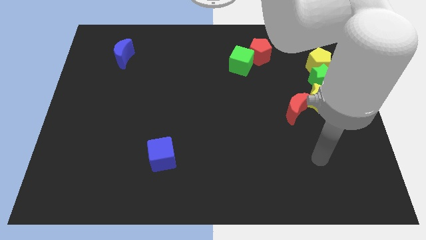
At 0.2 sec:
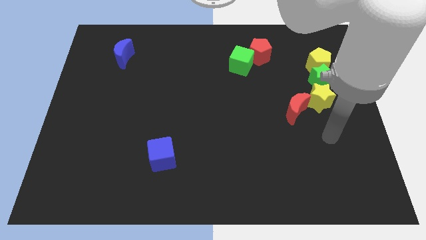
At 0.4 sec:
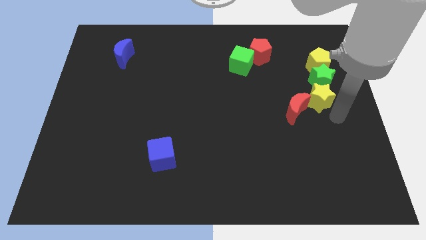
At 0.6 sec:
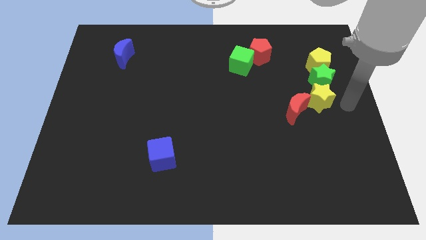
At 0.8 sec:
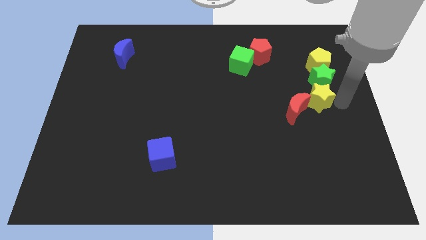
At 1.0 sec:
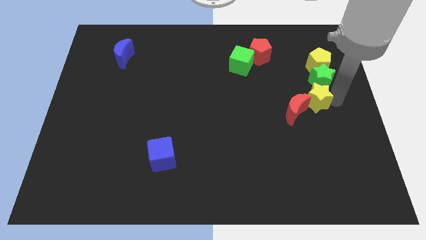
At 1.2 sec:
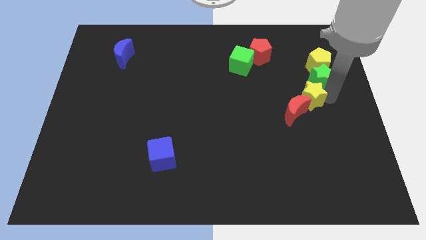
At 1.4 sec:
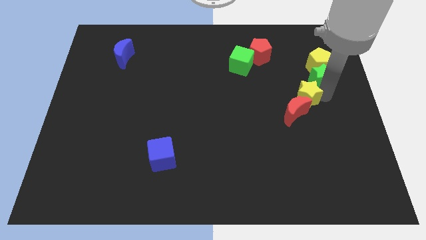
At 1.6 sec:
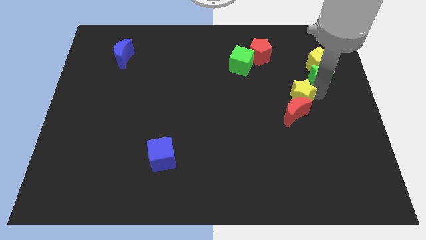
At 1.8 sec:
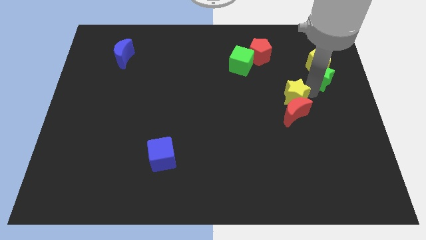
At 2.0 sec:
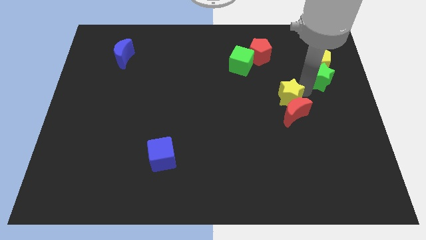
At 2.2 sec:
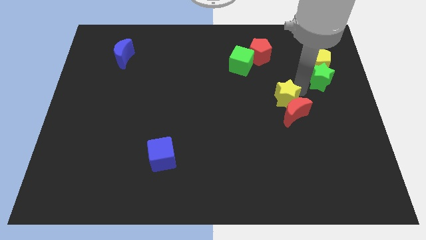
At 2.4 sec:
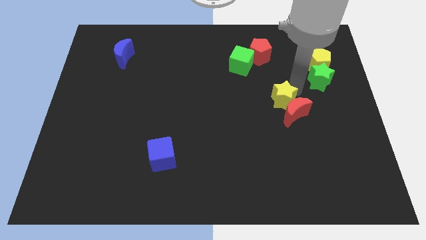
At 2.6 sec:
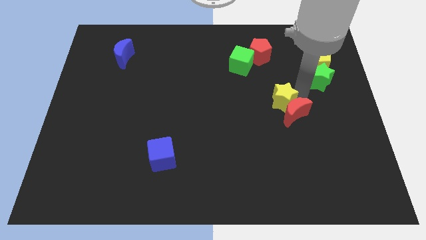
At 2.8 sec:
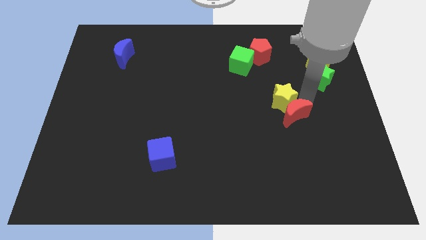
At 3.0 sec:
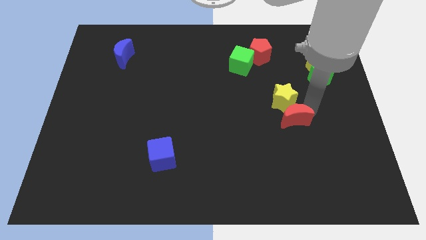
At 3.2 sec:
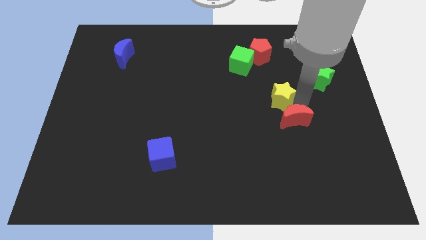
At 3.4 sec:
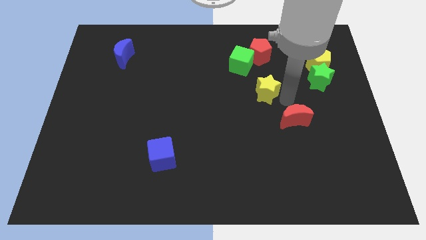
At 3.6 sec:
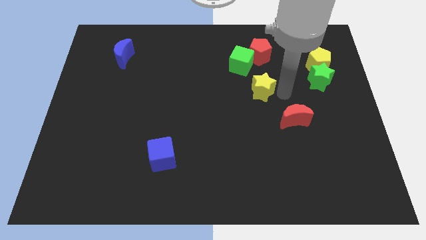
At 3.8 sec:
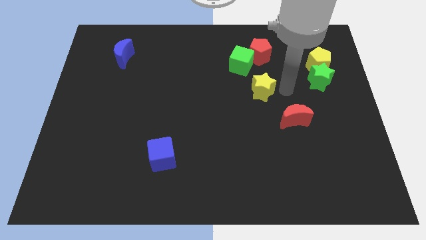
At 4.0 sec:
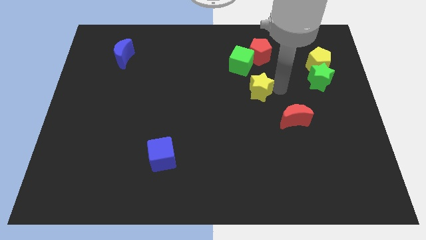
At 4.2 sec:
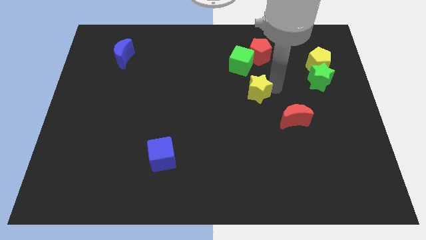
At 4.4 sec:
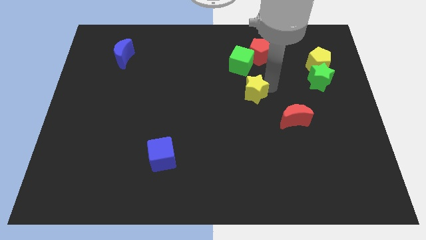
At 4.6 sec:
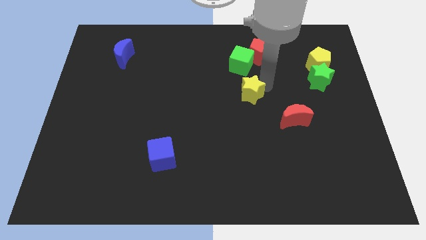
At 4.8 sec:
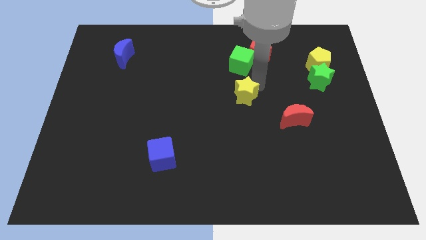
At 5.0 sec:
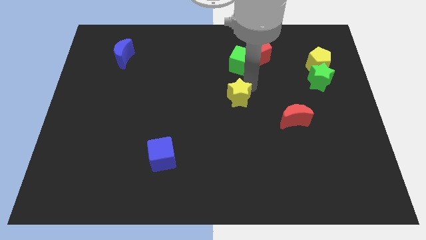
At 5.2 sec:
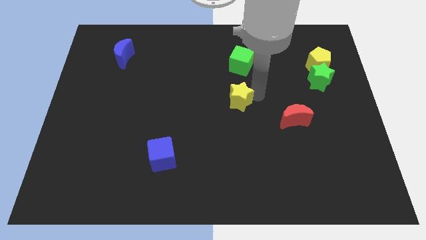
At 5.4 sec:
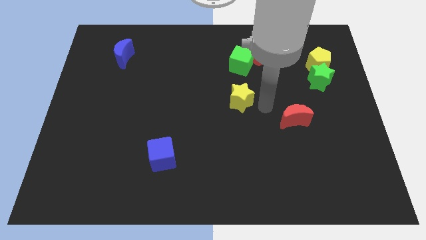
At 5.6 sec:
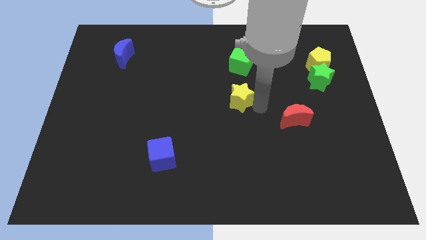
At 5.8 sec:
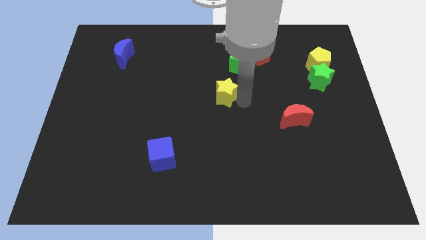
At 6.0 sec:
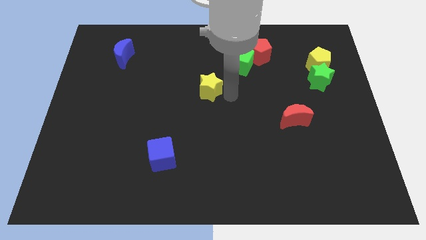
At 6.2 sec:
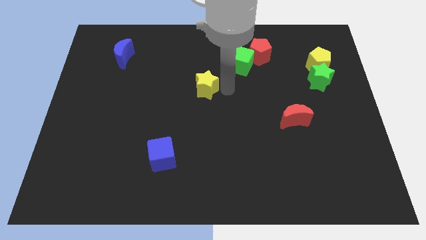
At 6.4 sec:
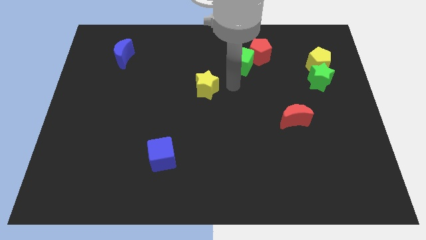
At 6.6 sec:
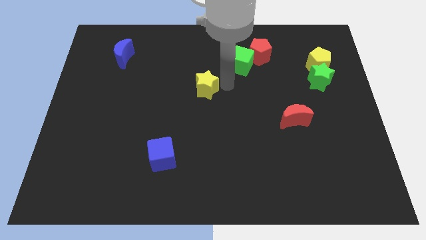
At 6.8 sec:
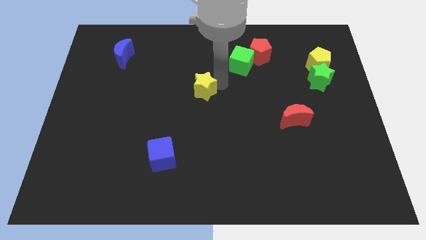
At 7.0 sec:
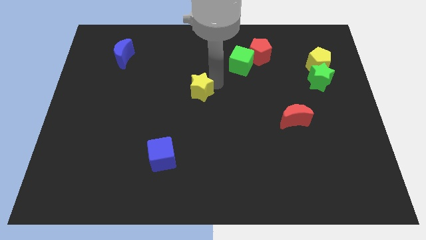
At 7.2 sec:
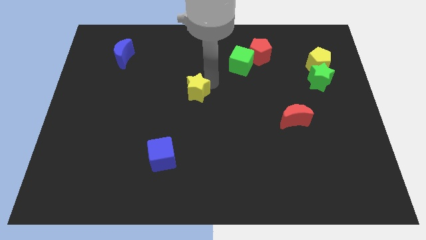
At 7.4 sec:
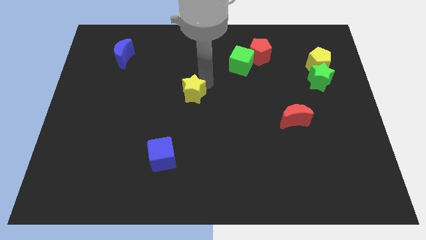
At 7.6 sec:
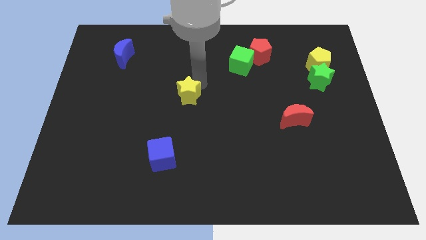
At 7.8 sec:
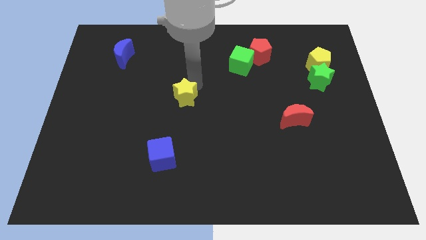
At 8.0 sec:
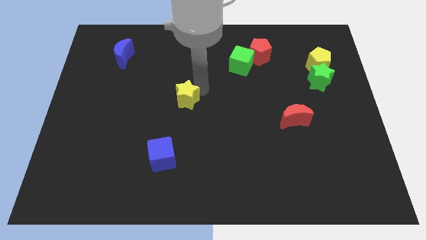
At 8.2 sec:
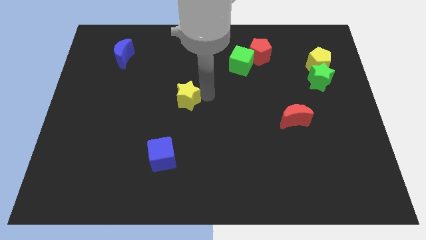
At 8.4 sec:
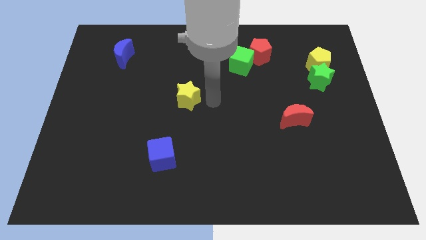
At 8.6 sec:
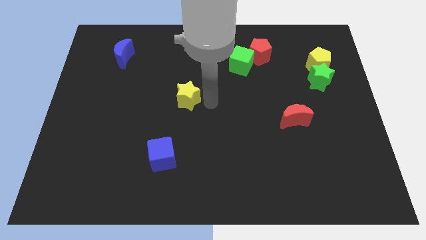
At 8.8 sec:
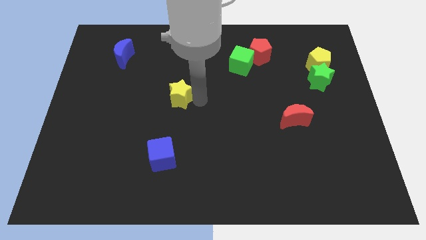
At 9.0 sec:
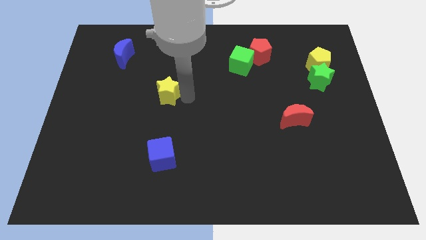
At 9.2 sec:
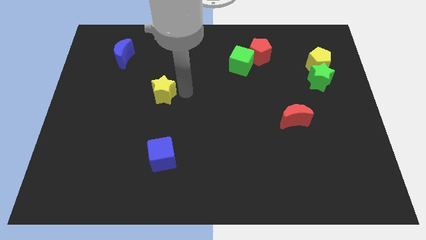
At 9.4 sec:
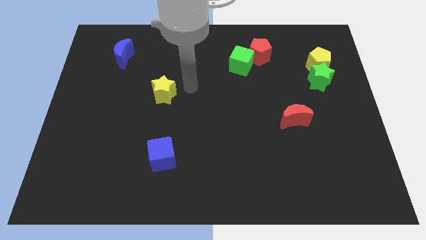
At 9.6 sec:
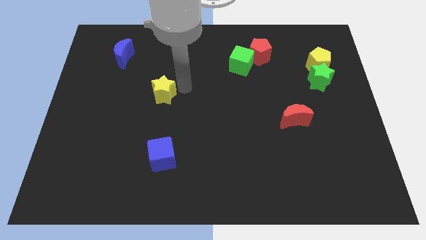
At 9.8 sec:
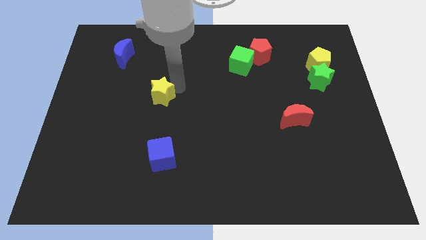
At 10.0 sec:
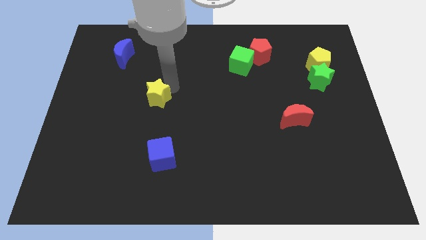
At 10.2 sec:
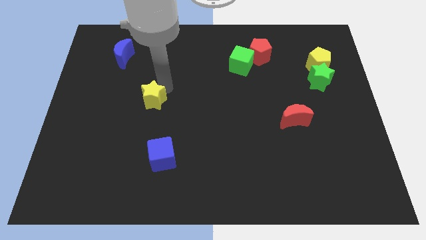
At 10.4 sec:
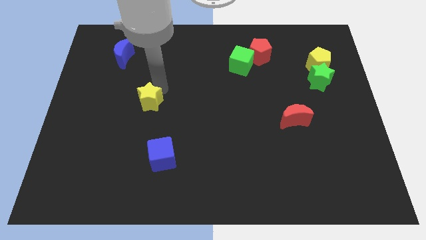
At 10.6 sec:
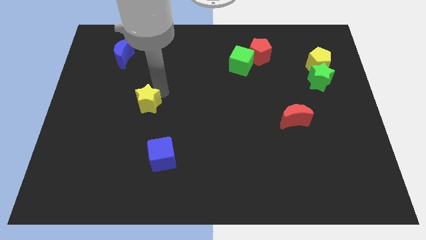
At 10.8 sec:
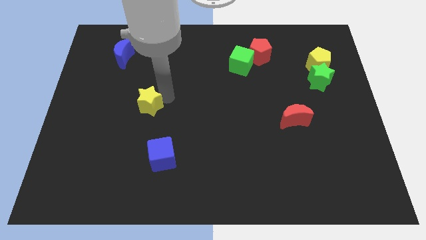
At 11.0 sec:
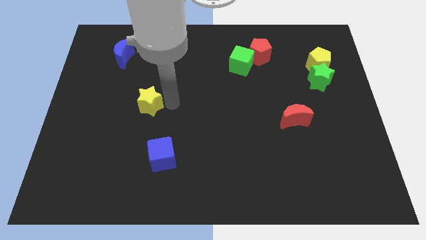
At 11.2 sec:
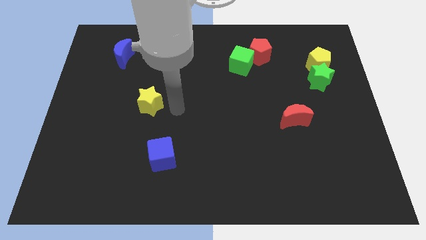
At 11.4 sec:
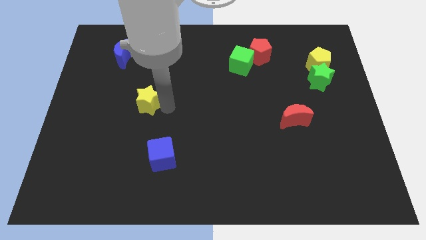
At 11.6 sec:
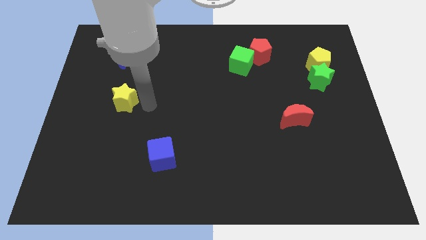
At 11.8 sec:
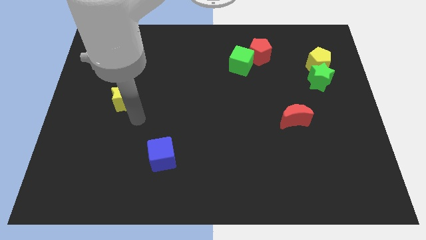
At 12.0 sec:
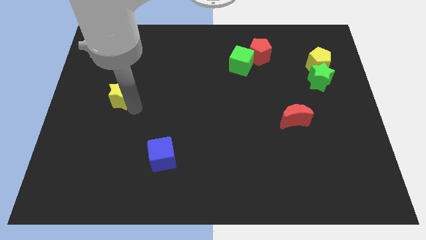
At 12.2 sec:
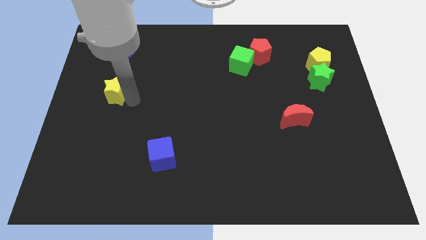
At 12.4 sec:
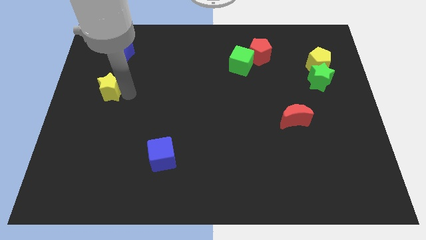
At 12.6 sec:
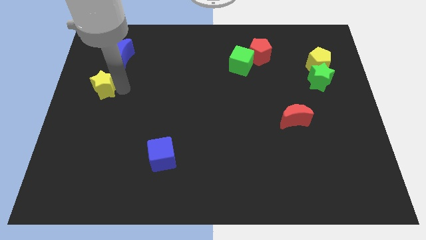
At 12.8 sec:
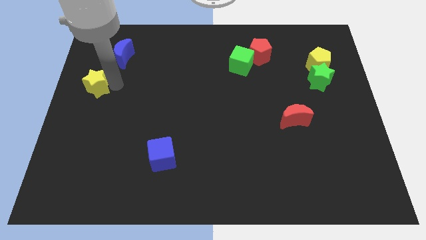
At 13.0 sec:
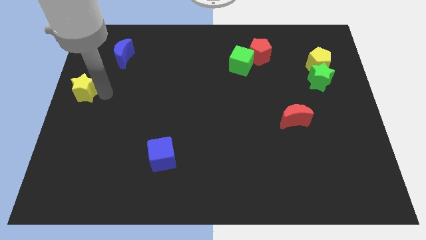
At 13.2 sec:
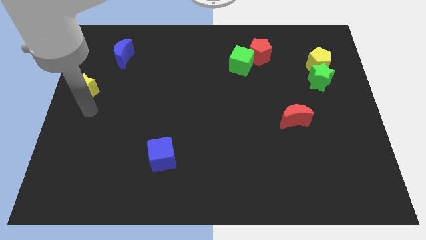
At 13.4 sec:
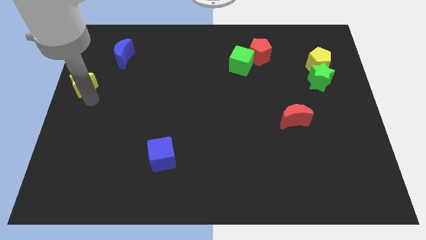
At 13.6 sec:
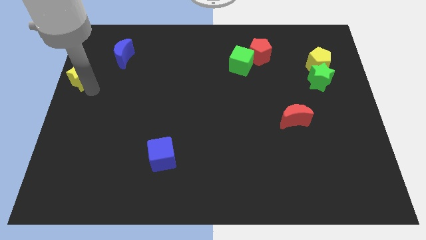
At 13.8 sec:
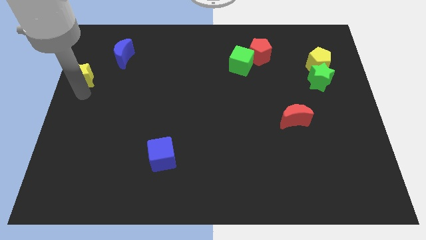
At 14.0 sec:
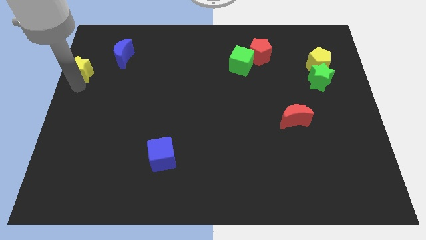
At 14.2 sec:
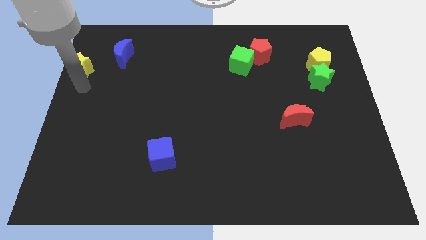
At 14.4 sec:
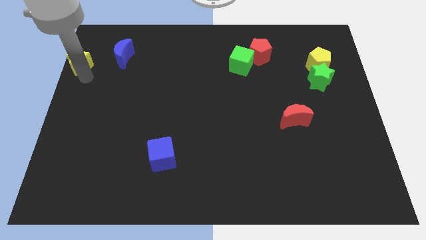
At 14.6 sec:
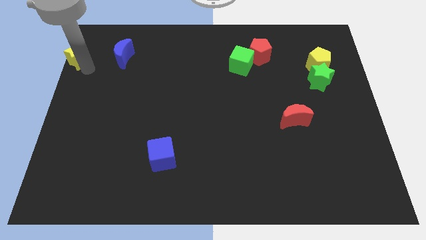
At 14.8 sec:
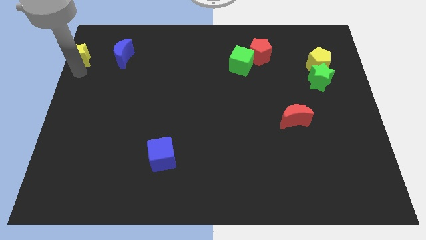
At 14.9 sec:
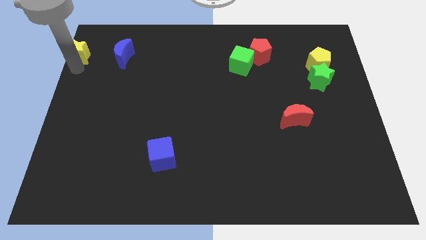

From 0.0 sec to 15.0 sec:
slide the yellow star to the top left of the board

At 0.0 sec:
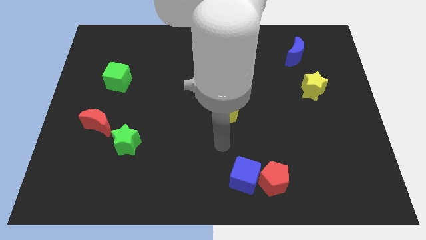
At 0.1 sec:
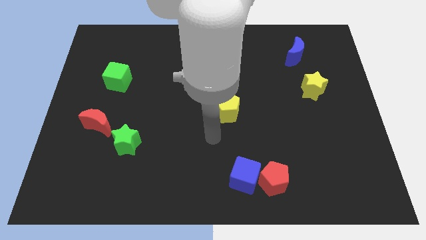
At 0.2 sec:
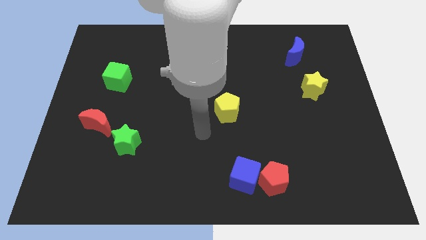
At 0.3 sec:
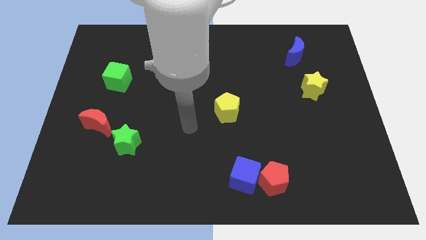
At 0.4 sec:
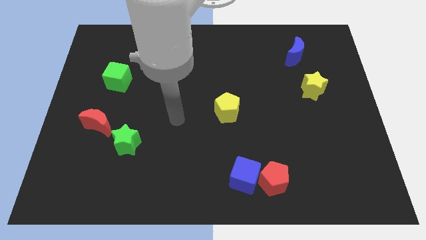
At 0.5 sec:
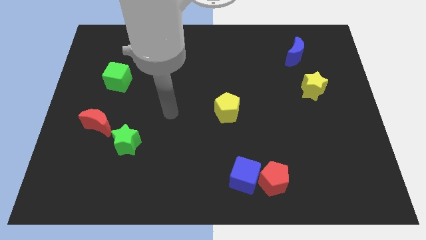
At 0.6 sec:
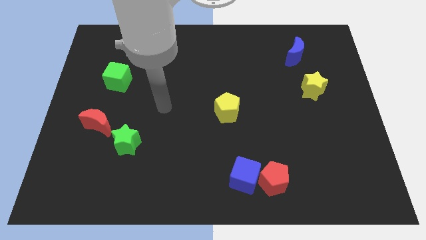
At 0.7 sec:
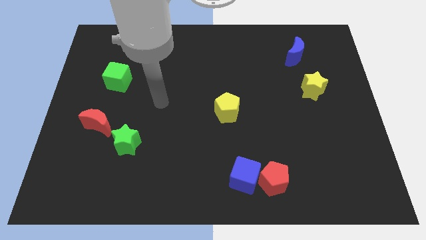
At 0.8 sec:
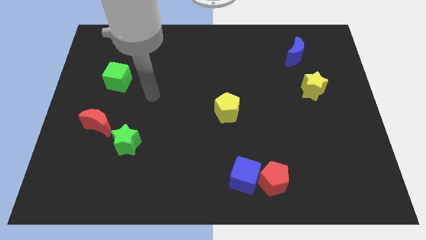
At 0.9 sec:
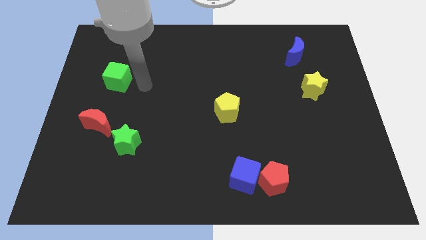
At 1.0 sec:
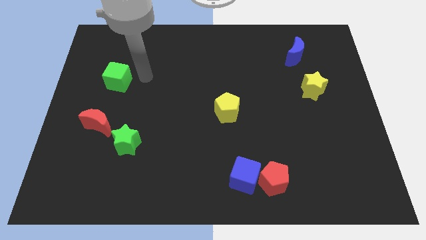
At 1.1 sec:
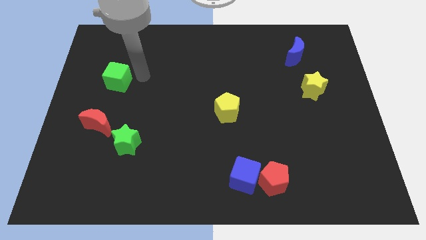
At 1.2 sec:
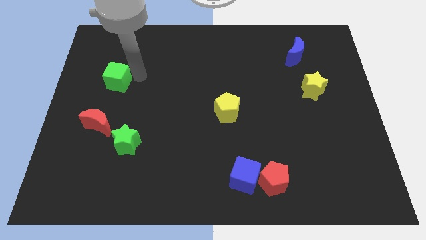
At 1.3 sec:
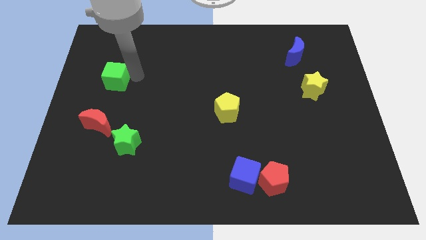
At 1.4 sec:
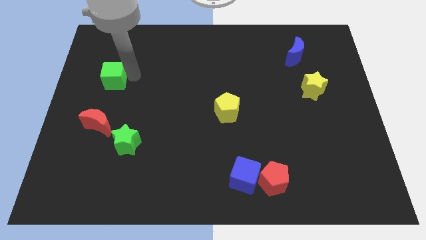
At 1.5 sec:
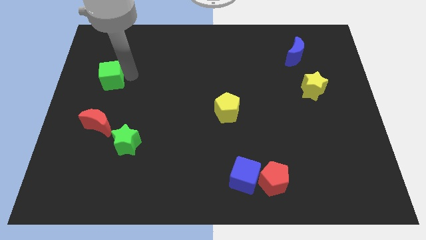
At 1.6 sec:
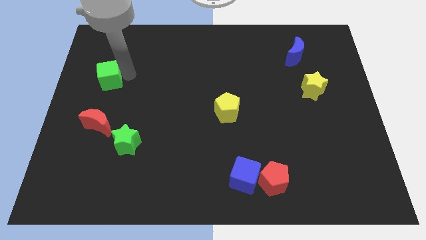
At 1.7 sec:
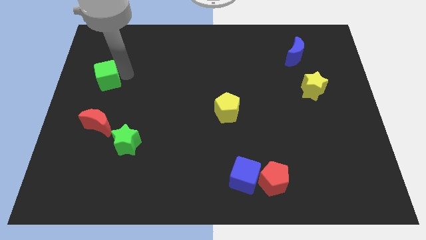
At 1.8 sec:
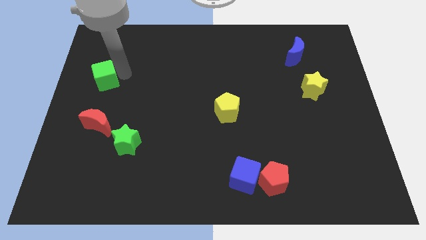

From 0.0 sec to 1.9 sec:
slide the green cube to the center left
